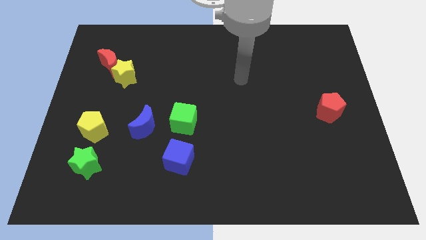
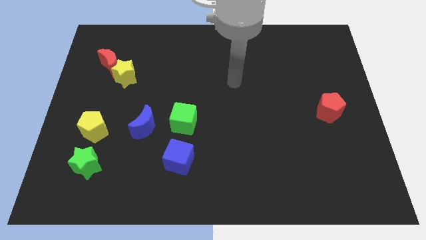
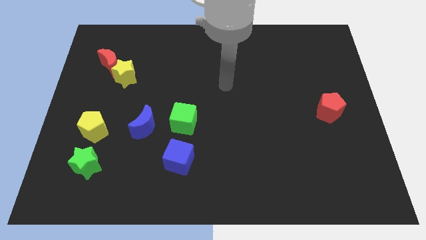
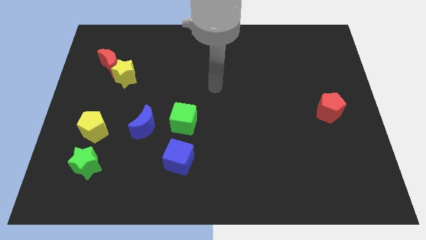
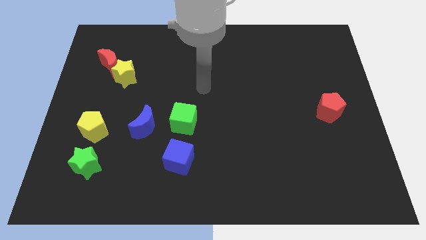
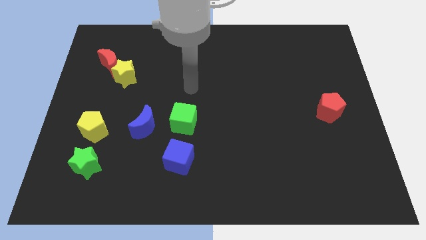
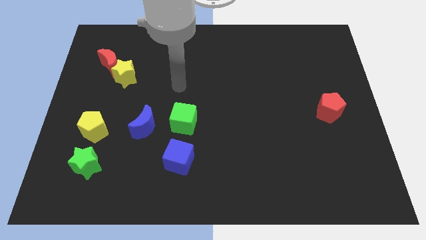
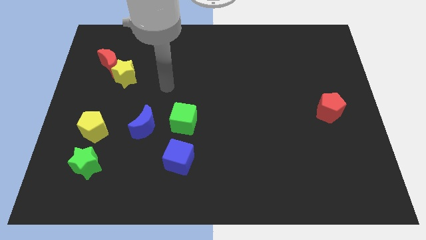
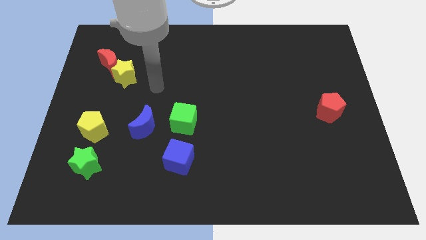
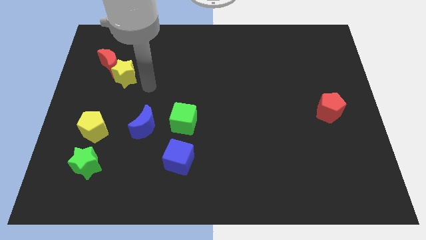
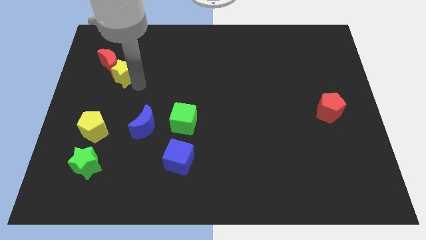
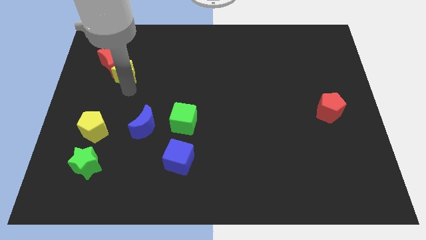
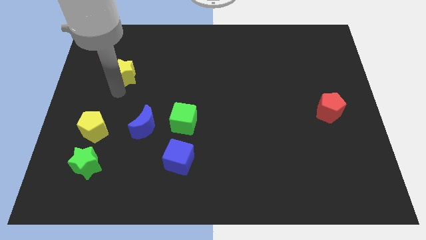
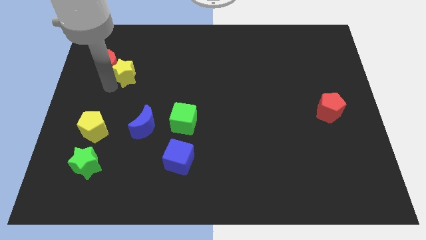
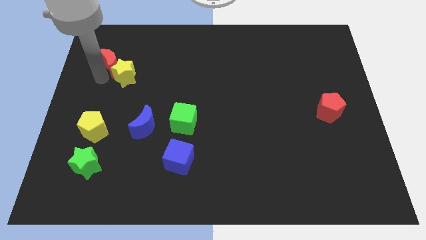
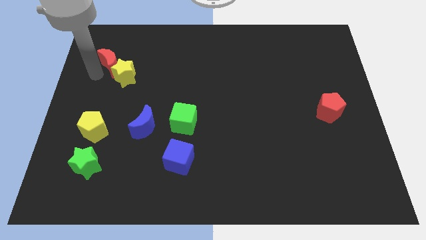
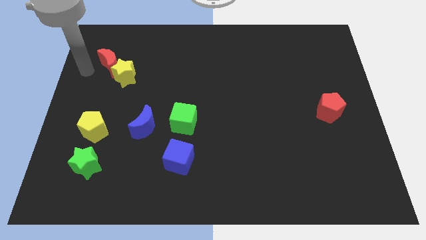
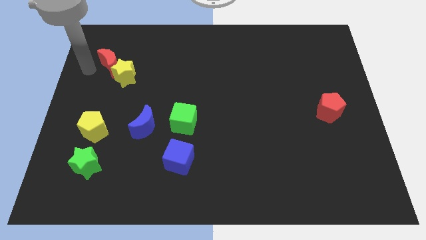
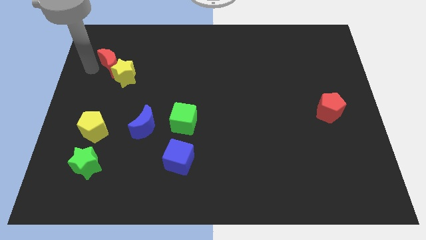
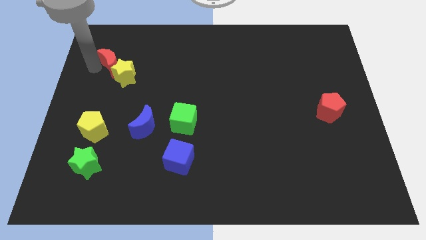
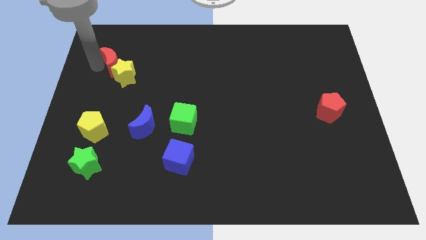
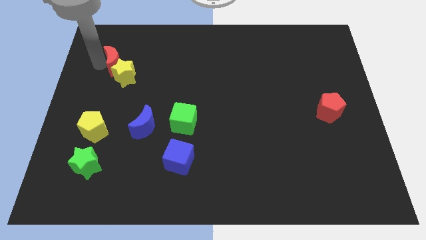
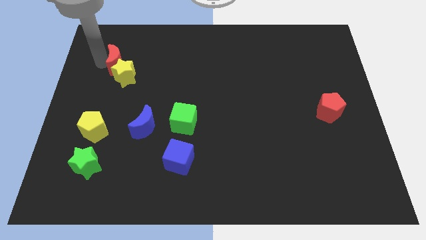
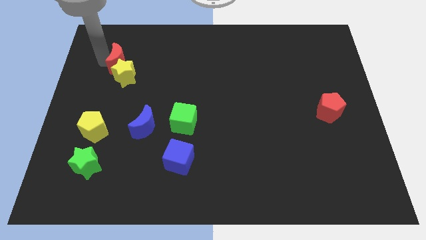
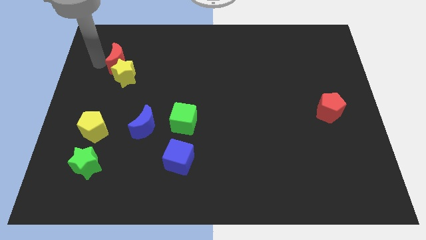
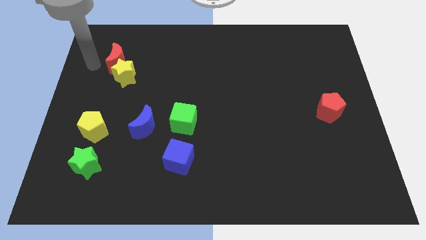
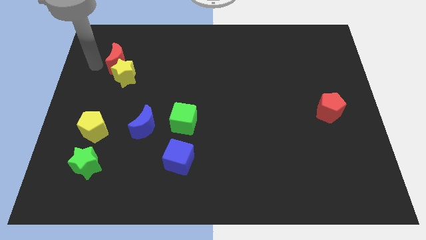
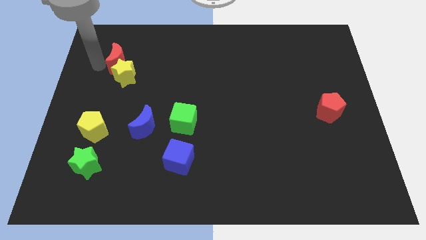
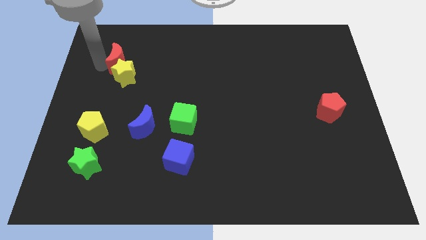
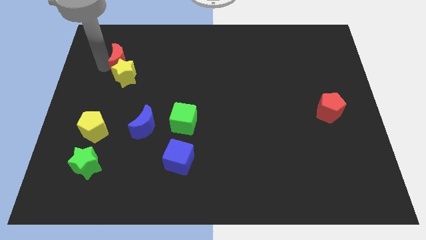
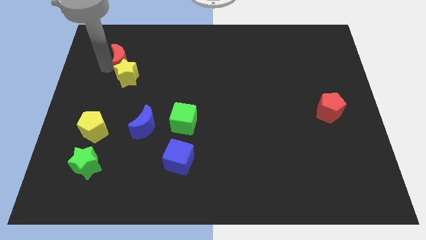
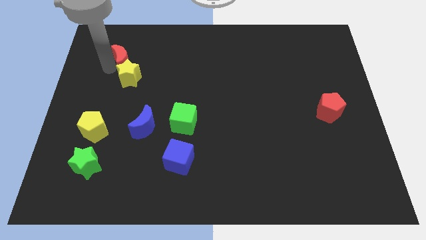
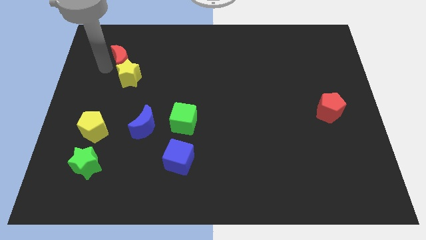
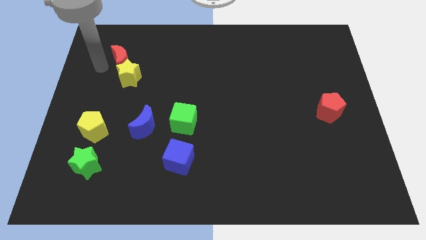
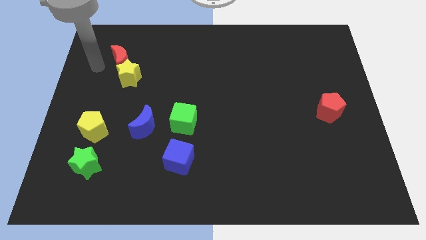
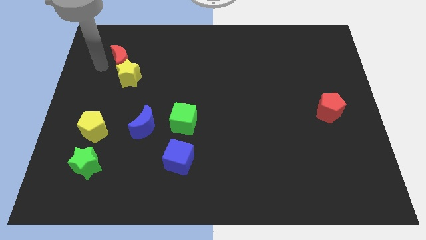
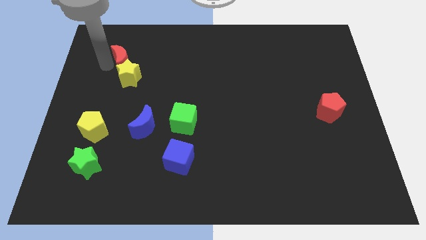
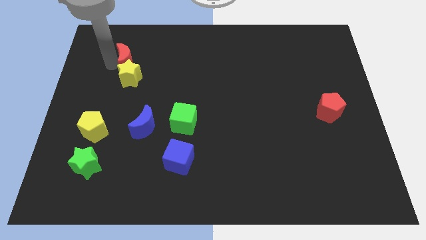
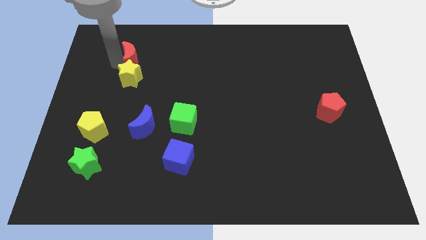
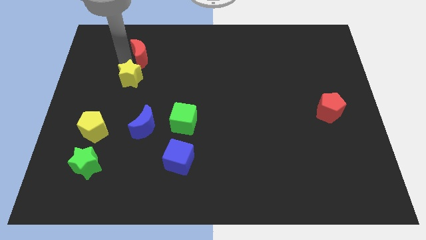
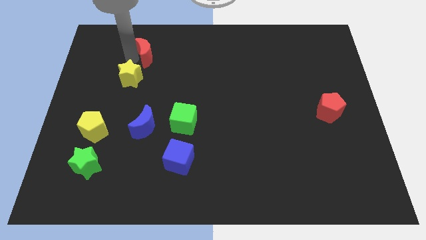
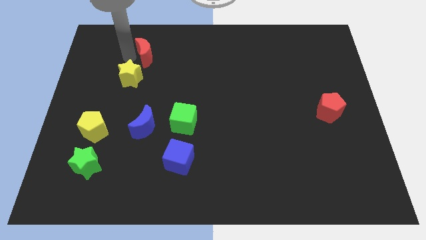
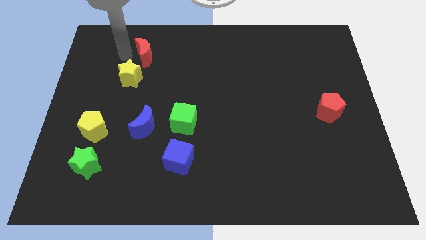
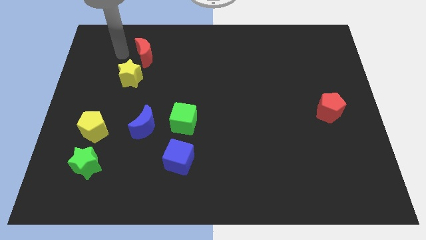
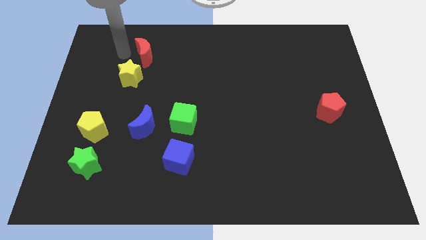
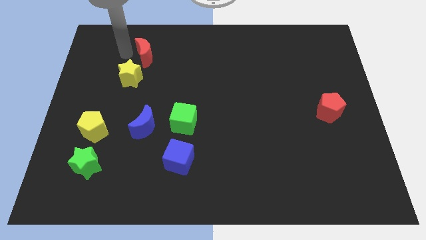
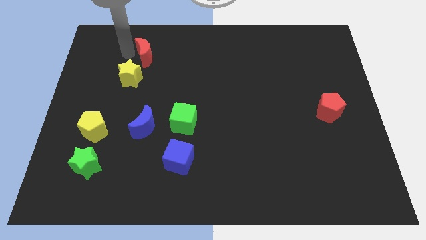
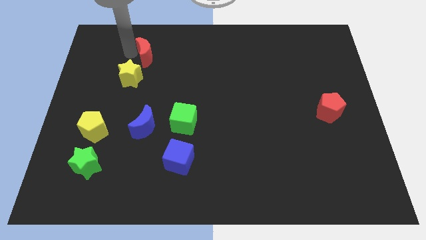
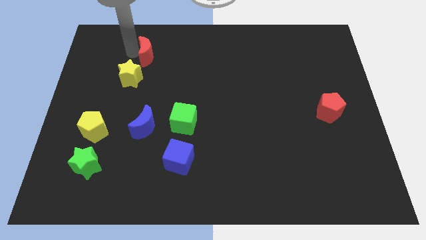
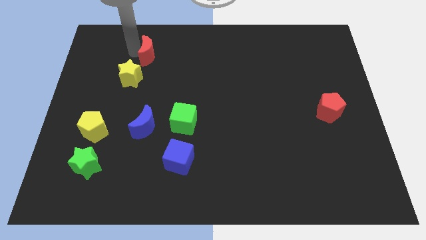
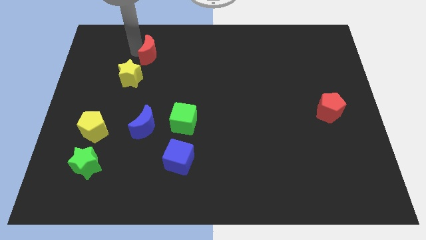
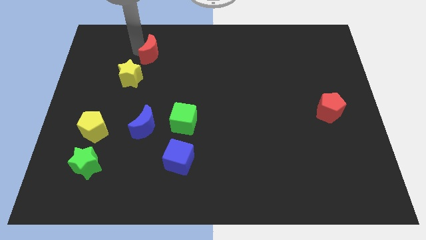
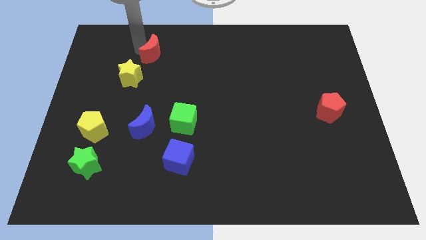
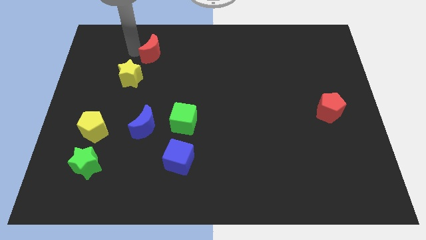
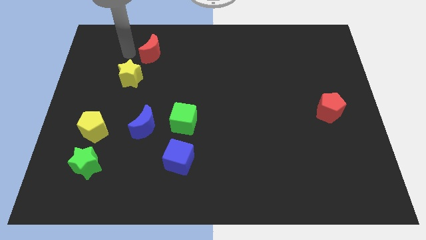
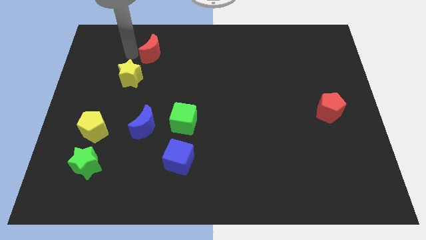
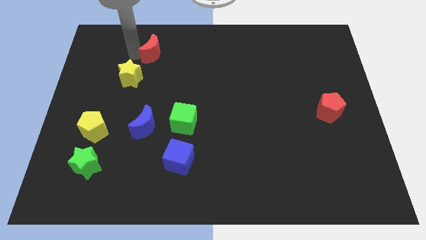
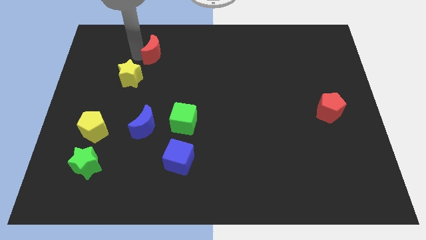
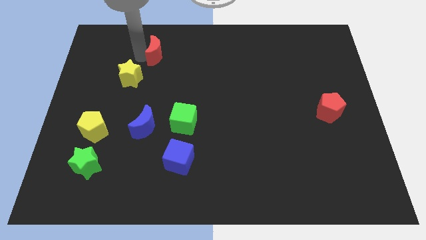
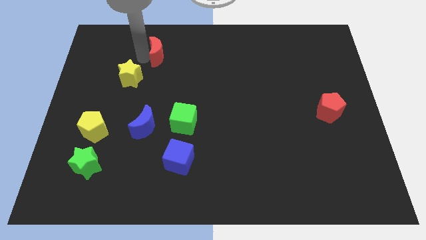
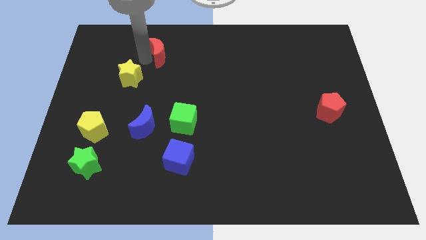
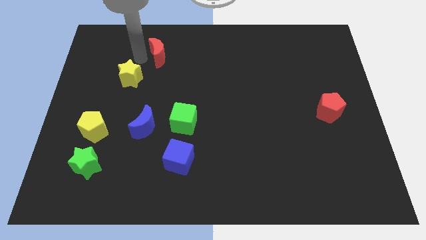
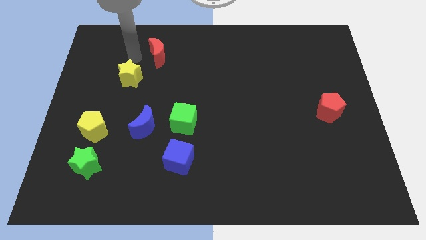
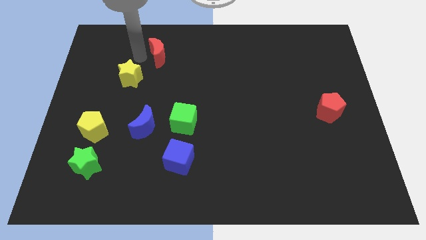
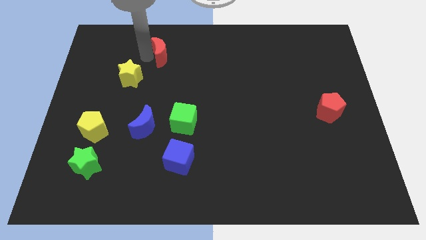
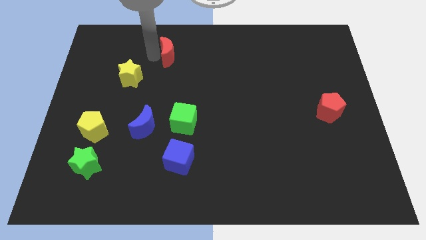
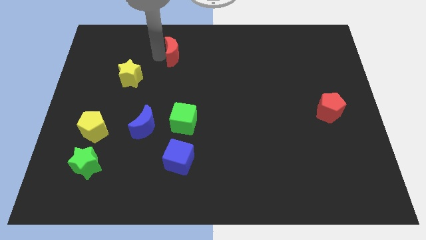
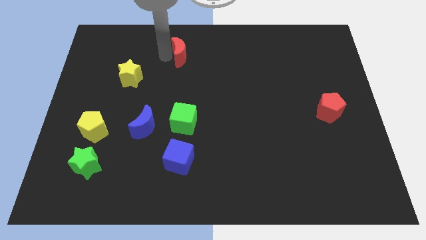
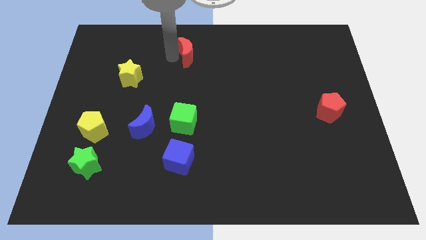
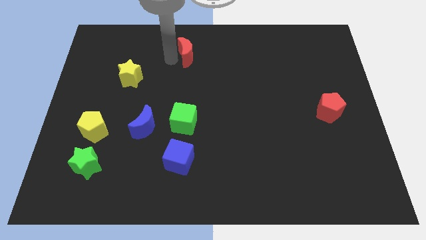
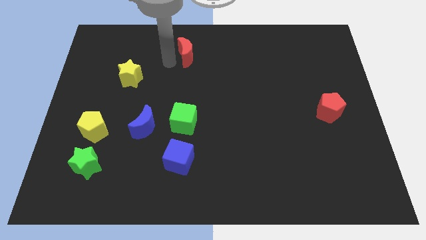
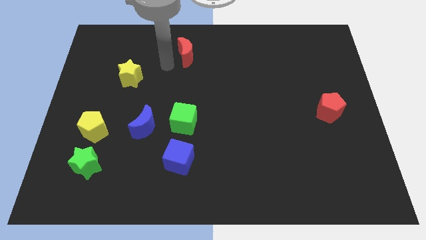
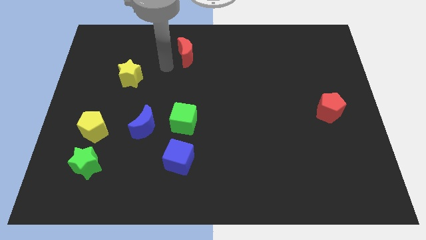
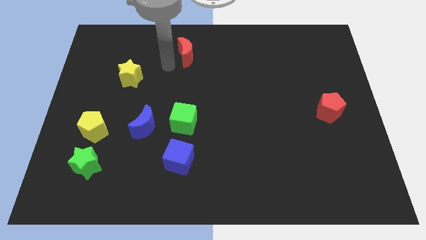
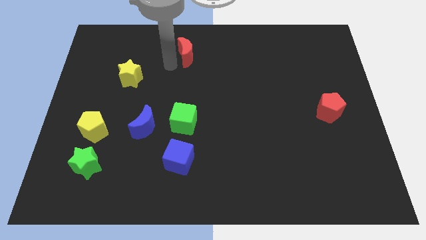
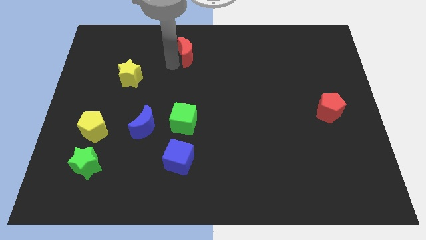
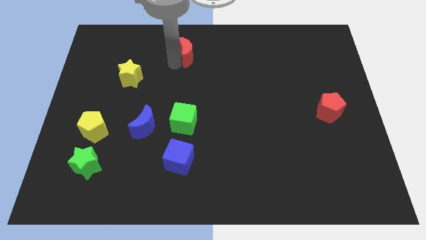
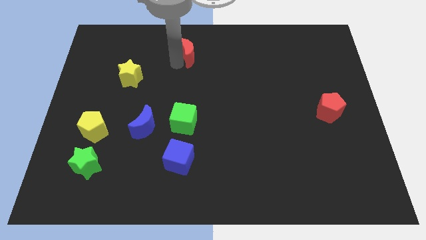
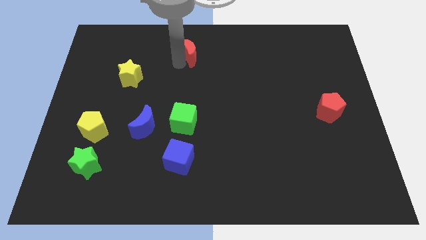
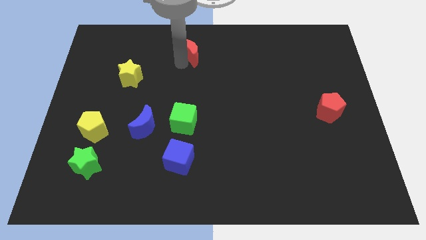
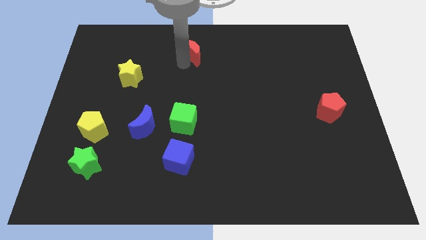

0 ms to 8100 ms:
move the red moon to the towards your base
